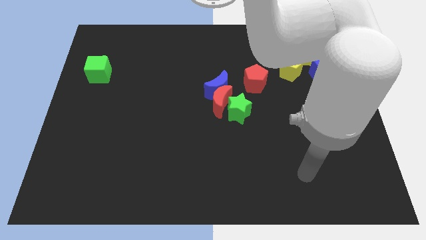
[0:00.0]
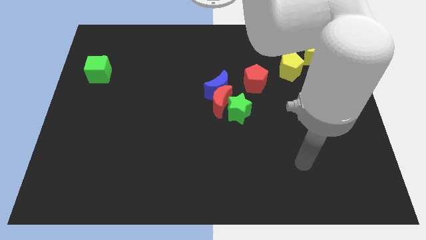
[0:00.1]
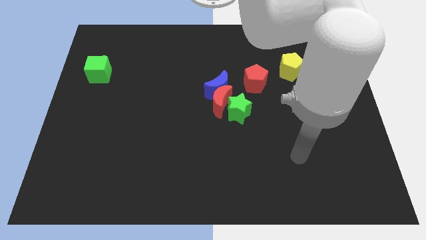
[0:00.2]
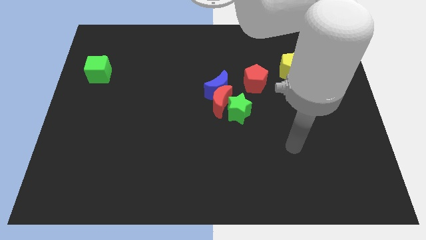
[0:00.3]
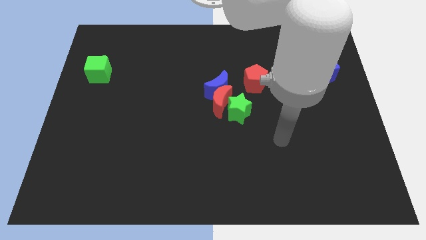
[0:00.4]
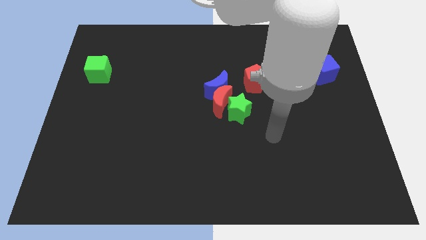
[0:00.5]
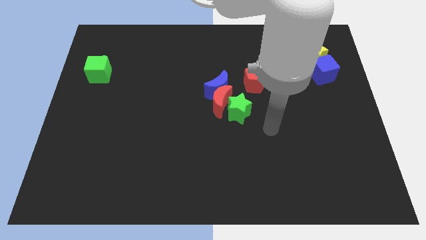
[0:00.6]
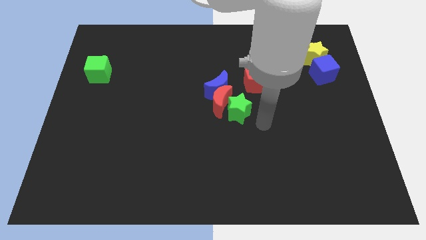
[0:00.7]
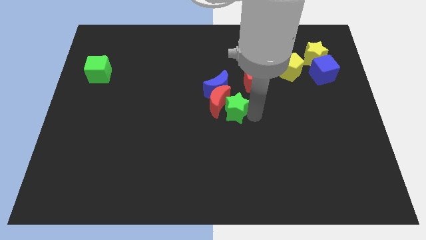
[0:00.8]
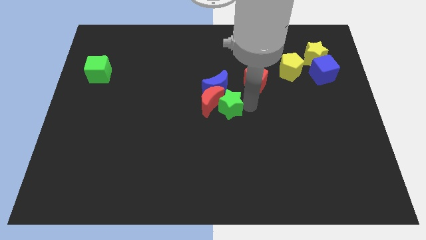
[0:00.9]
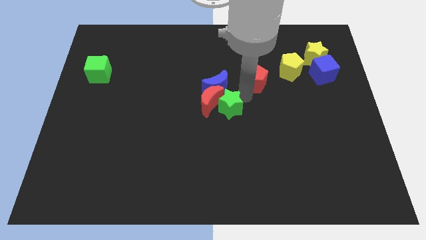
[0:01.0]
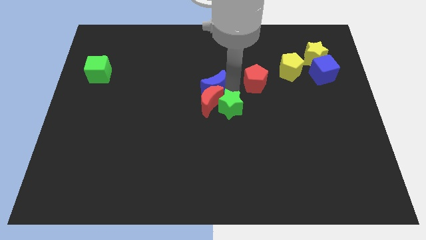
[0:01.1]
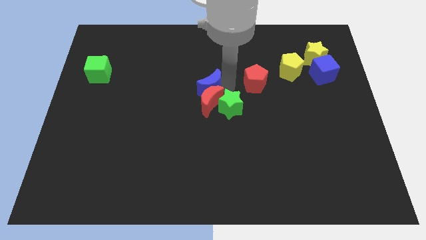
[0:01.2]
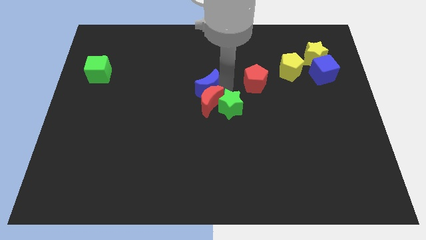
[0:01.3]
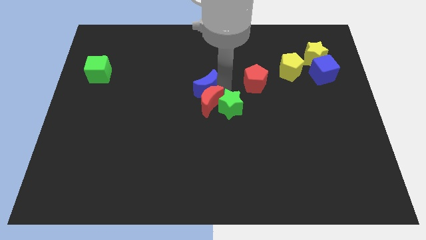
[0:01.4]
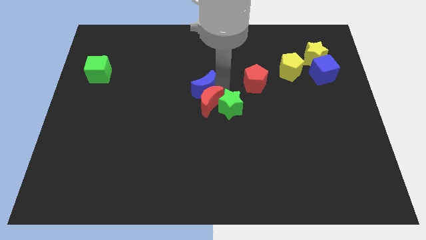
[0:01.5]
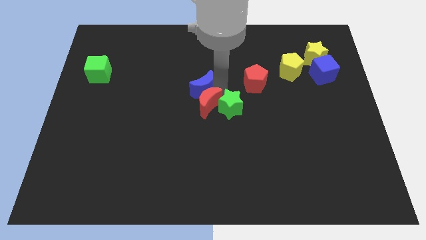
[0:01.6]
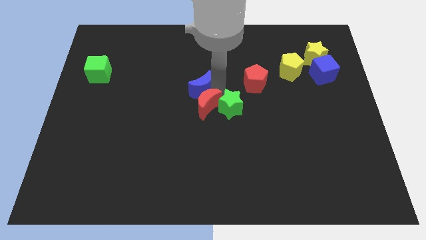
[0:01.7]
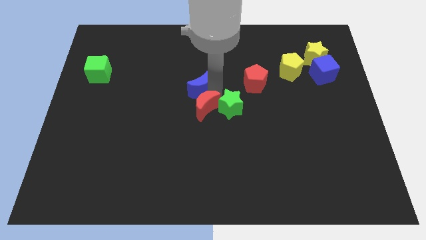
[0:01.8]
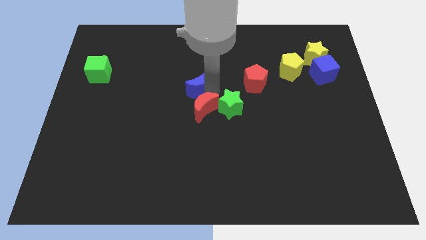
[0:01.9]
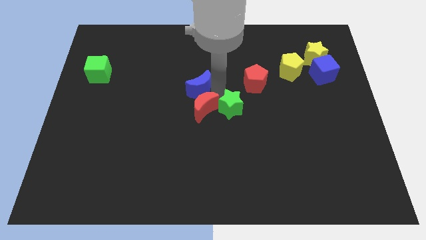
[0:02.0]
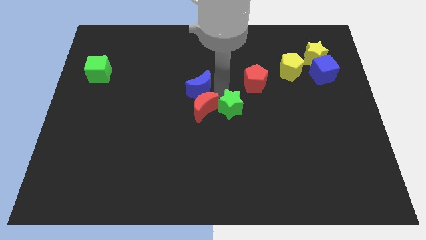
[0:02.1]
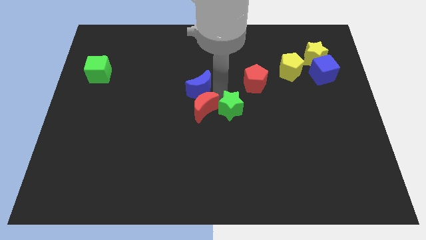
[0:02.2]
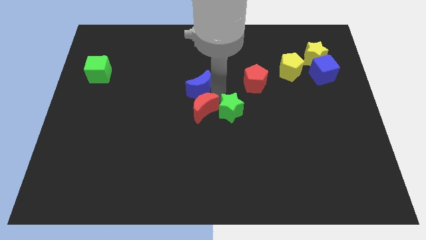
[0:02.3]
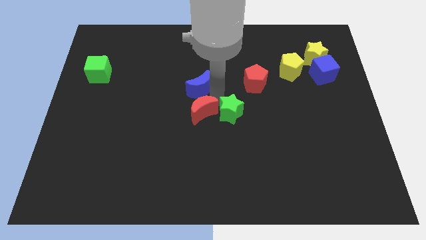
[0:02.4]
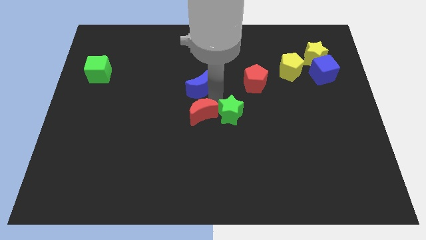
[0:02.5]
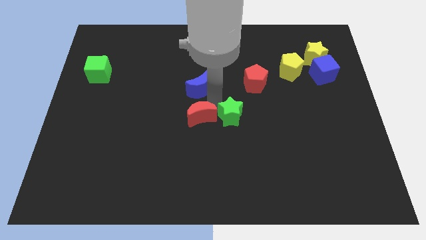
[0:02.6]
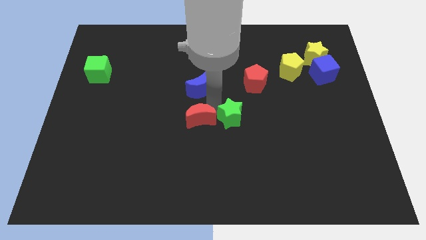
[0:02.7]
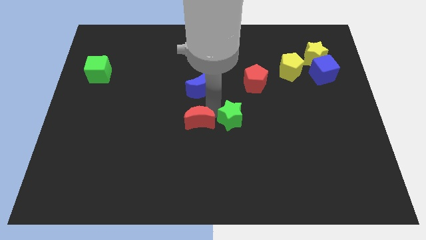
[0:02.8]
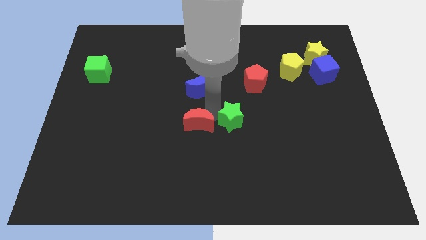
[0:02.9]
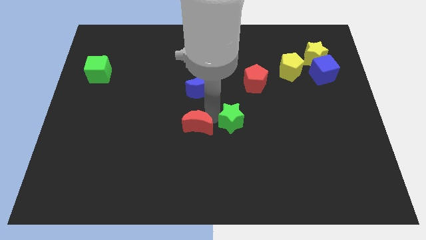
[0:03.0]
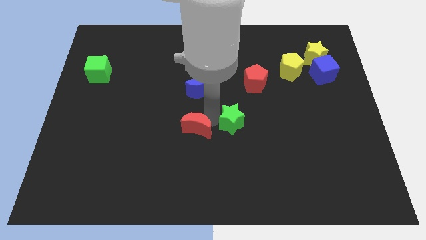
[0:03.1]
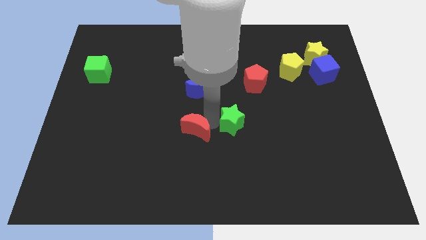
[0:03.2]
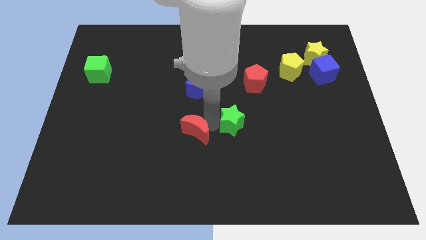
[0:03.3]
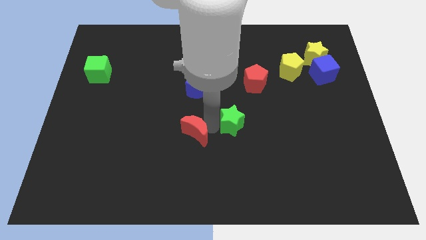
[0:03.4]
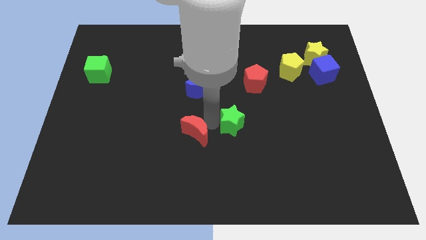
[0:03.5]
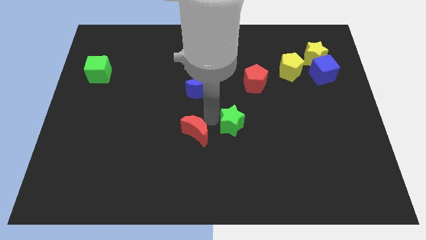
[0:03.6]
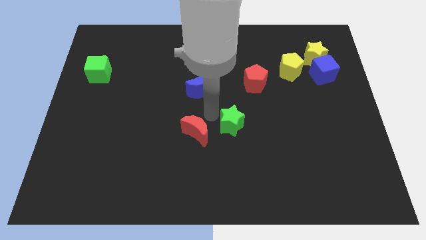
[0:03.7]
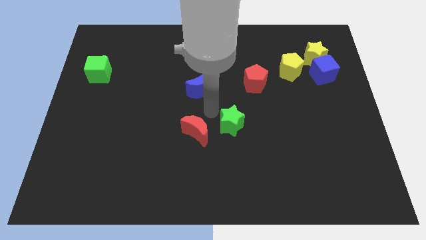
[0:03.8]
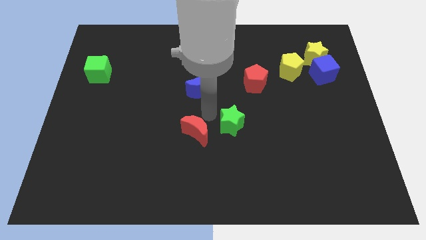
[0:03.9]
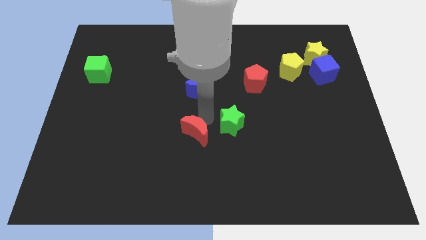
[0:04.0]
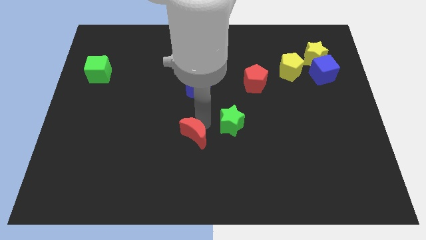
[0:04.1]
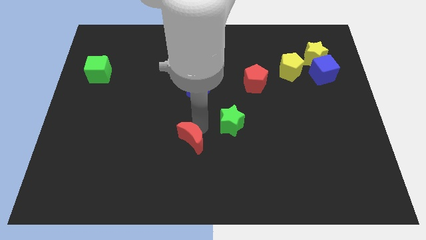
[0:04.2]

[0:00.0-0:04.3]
move the red moon away from the blue moon and green star

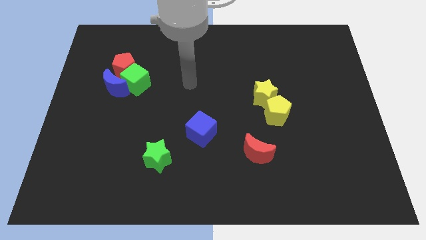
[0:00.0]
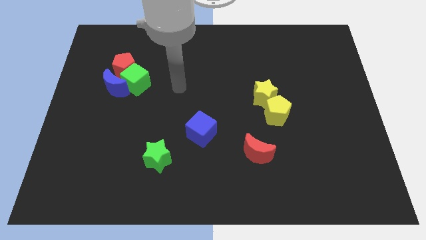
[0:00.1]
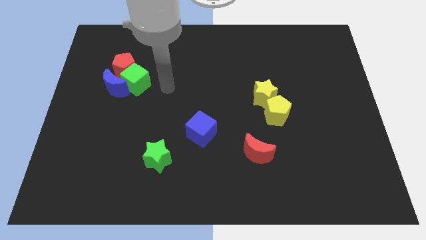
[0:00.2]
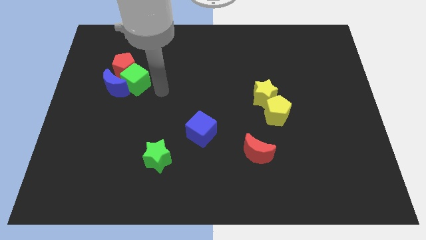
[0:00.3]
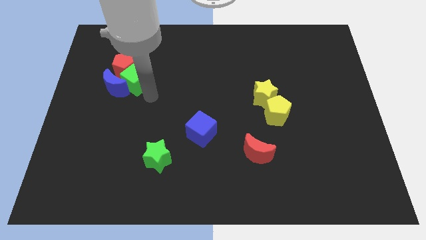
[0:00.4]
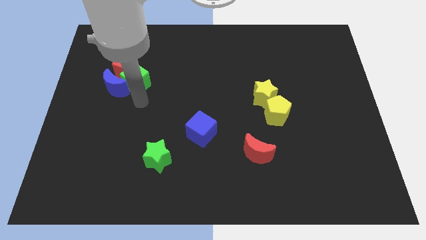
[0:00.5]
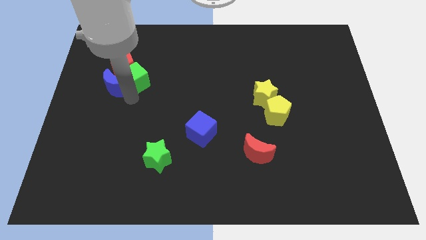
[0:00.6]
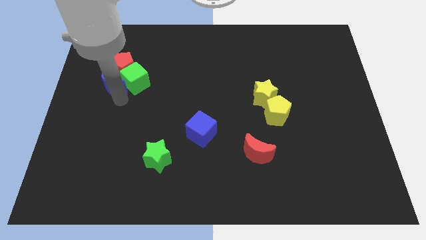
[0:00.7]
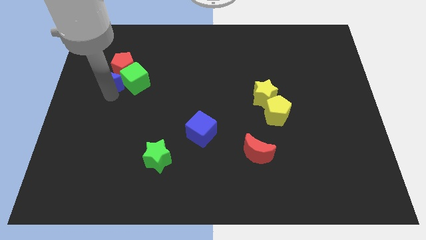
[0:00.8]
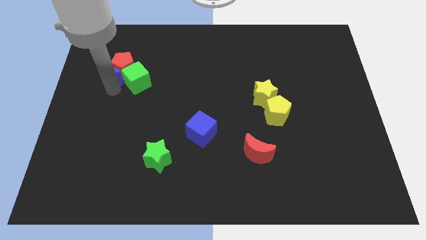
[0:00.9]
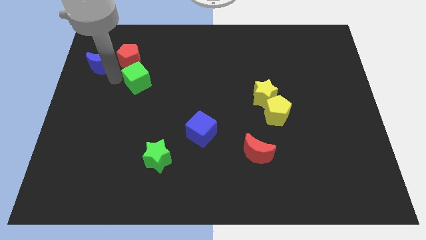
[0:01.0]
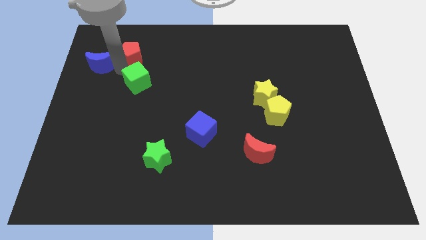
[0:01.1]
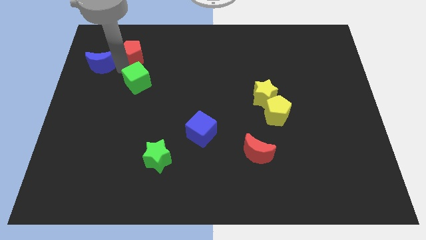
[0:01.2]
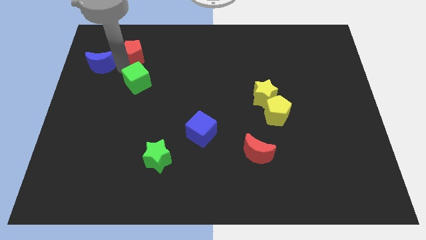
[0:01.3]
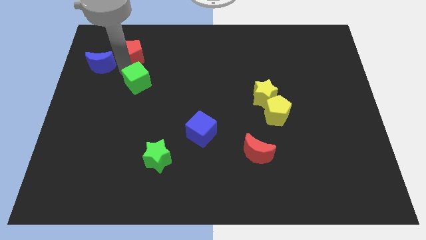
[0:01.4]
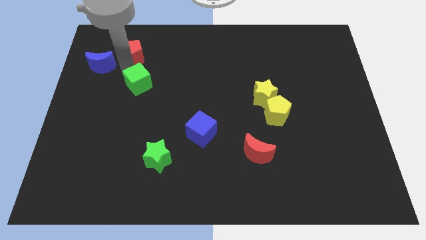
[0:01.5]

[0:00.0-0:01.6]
pull the green cube apart from the blue moon and red pentagon

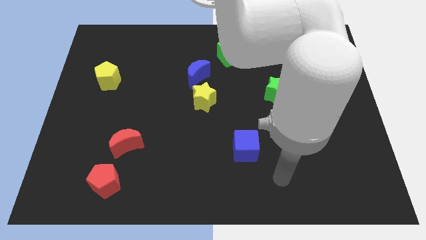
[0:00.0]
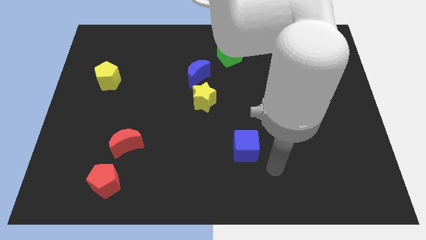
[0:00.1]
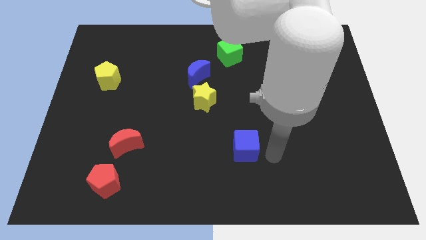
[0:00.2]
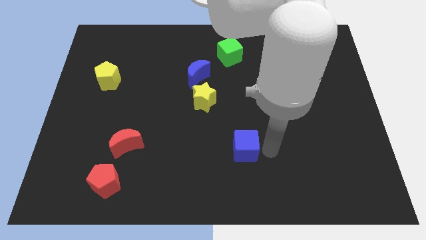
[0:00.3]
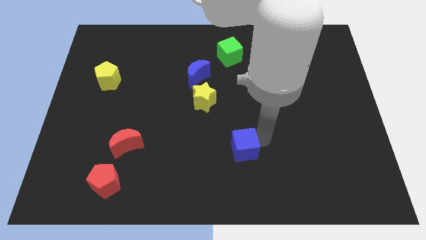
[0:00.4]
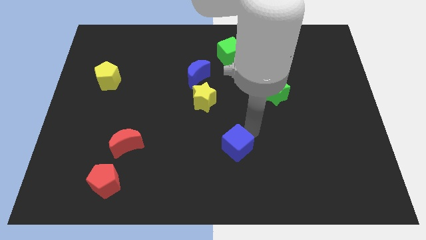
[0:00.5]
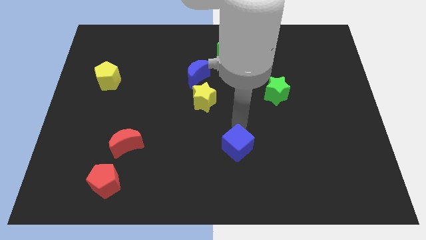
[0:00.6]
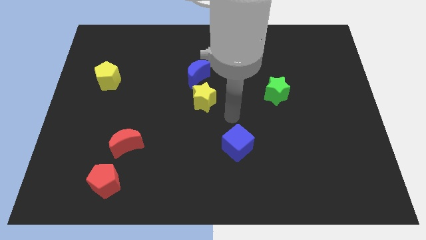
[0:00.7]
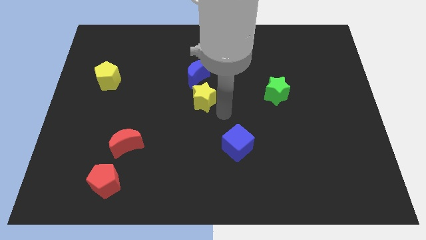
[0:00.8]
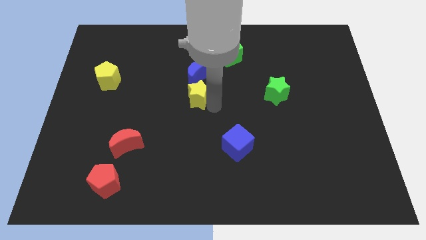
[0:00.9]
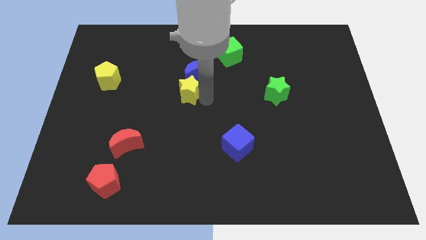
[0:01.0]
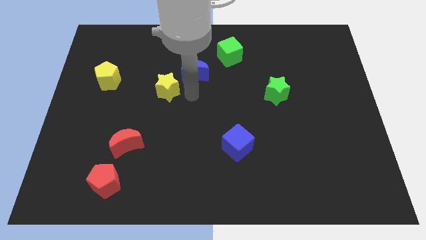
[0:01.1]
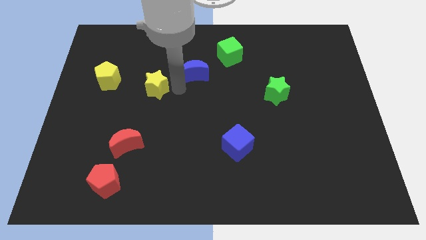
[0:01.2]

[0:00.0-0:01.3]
move the blue moon away from the yellow star

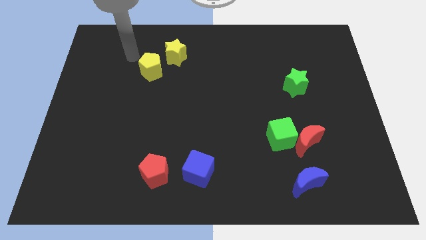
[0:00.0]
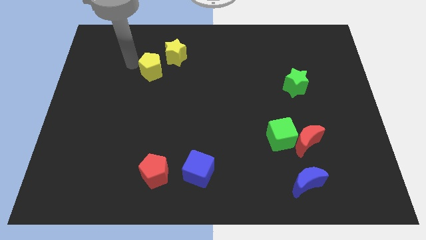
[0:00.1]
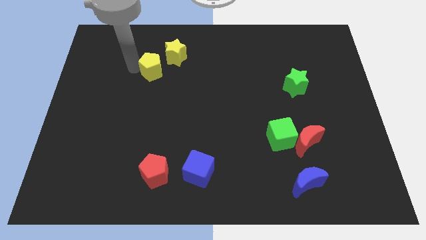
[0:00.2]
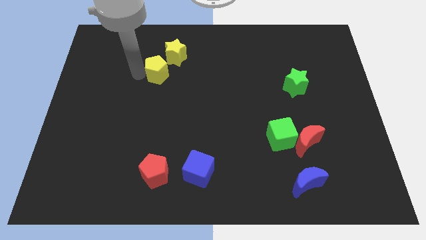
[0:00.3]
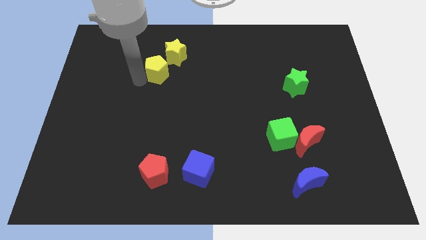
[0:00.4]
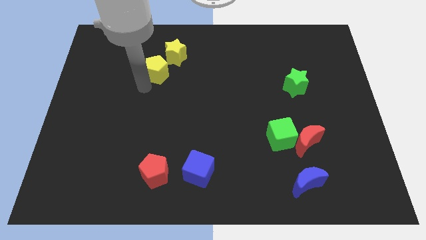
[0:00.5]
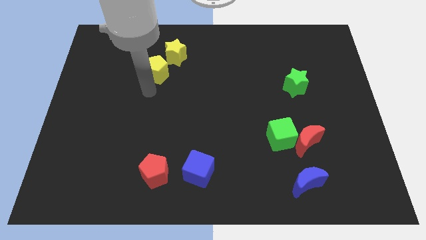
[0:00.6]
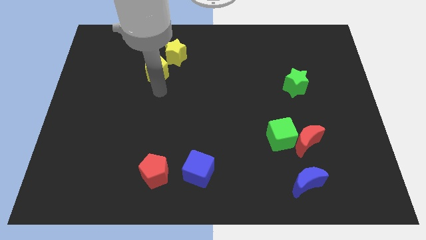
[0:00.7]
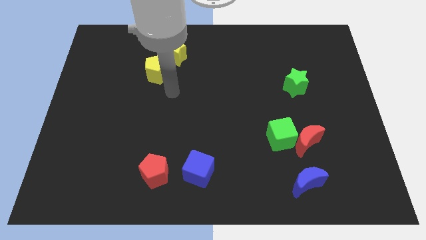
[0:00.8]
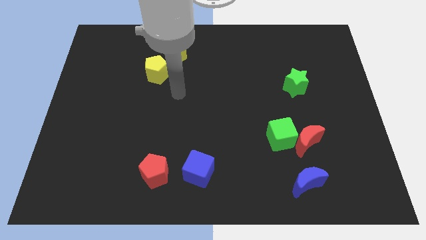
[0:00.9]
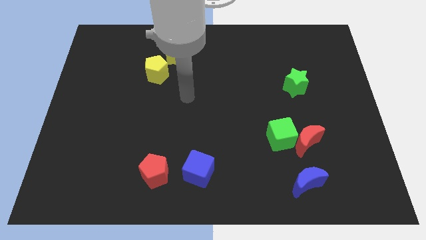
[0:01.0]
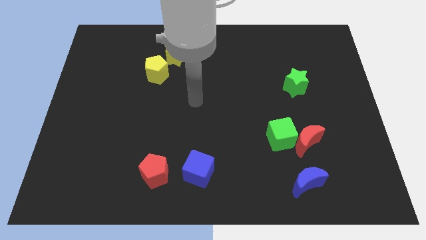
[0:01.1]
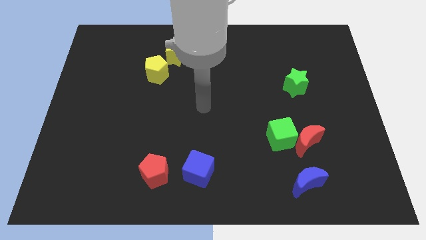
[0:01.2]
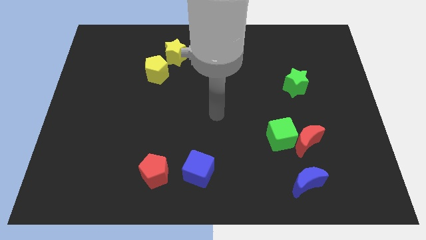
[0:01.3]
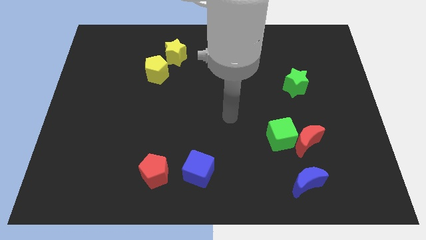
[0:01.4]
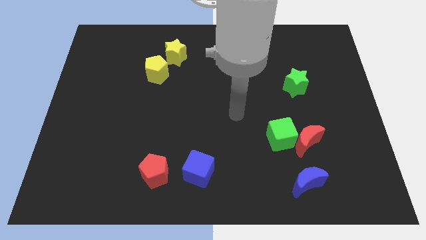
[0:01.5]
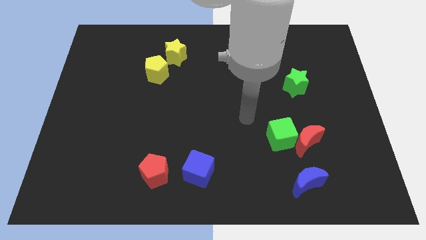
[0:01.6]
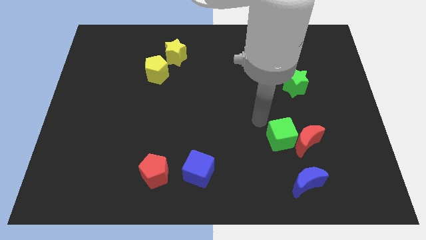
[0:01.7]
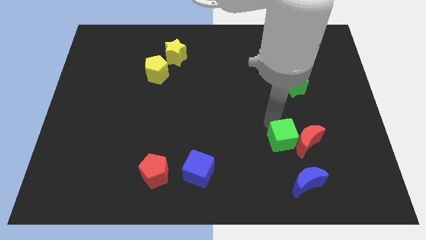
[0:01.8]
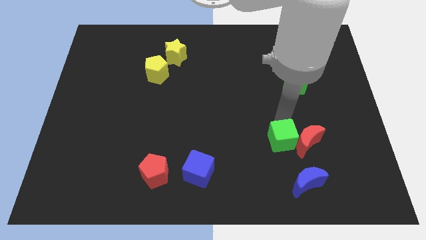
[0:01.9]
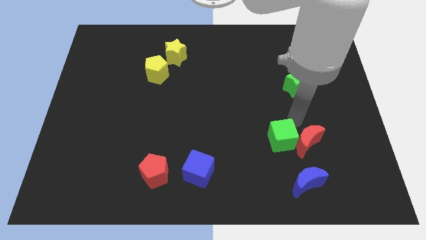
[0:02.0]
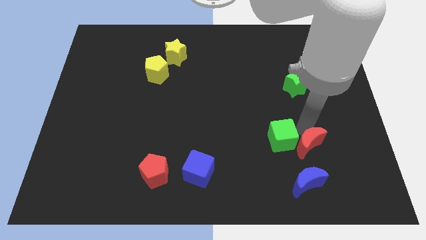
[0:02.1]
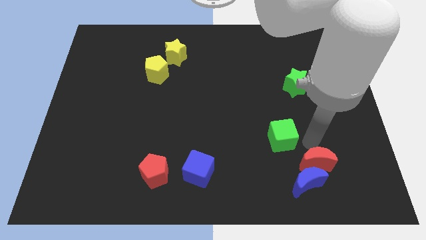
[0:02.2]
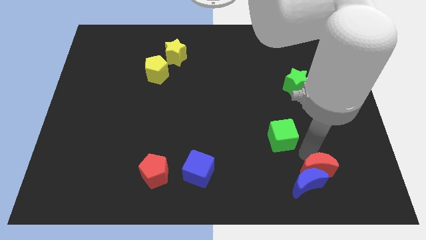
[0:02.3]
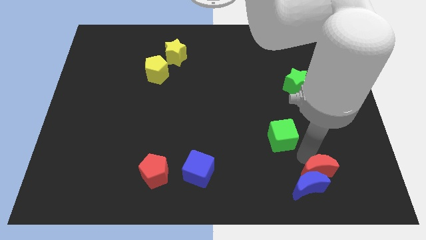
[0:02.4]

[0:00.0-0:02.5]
pull the green cube apart from the red moon
